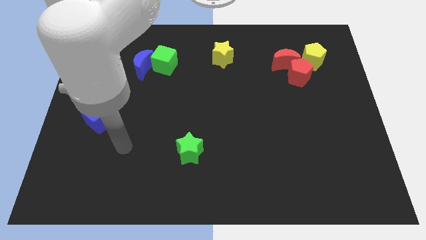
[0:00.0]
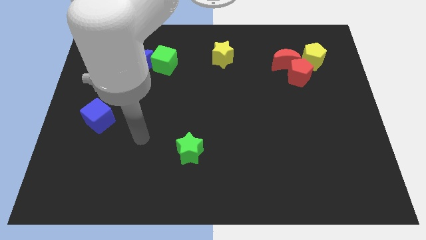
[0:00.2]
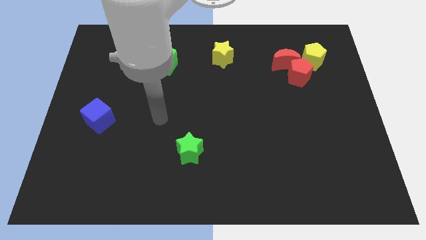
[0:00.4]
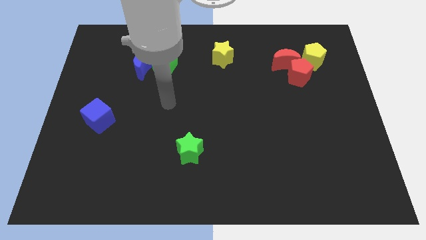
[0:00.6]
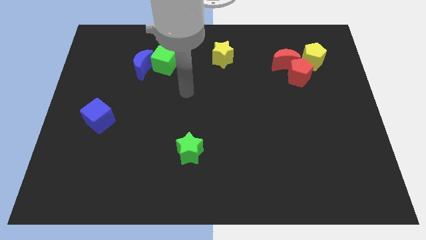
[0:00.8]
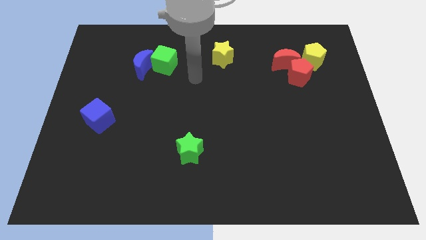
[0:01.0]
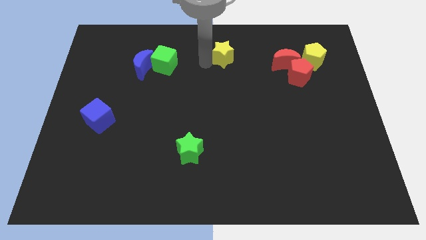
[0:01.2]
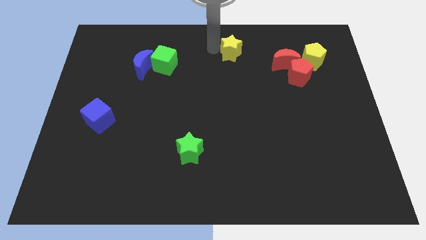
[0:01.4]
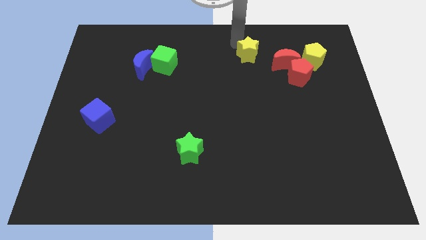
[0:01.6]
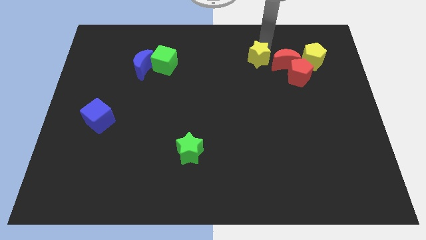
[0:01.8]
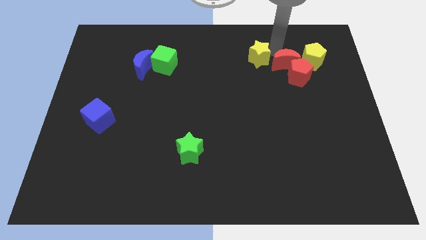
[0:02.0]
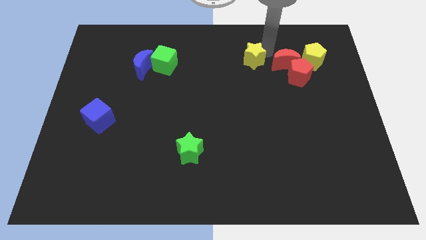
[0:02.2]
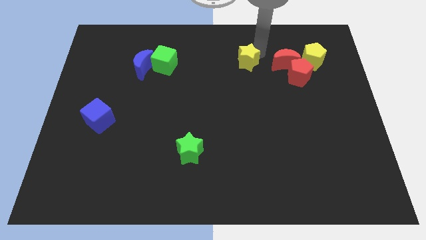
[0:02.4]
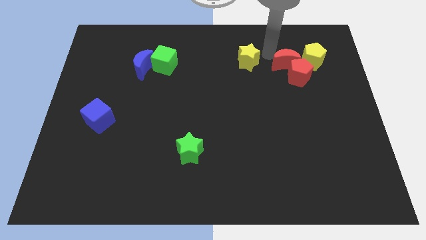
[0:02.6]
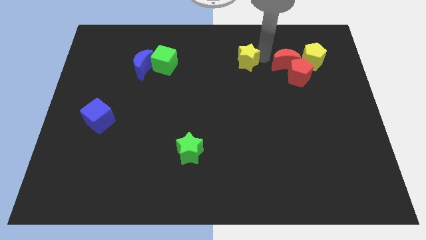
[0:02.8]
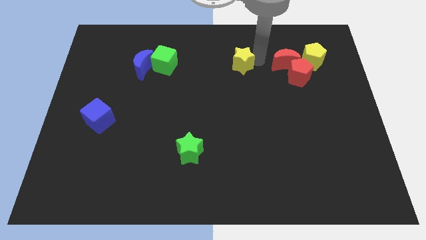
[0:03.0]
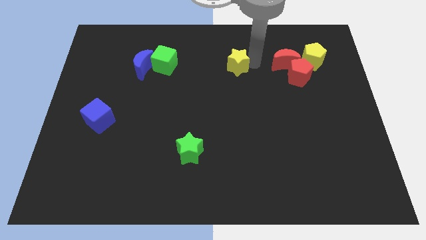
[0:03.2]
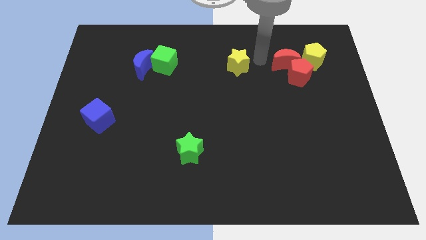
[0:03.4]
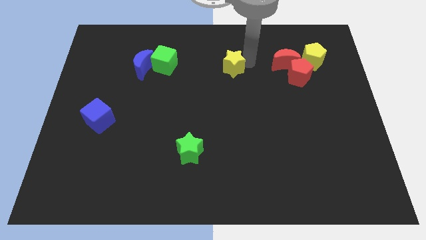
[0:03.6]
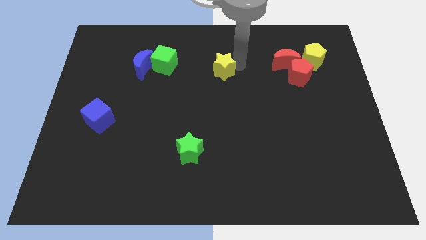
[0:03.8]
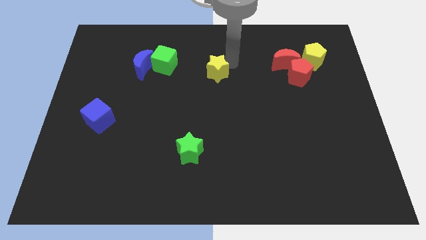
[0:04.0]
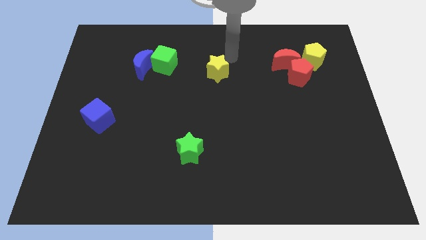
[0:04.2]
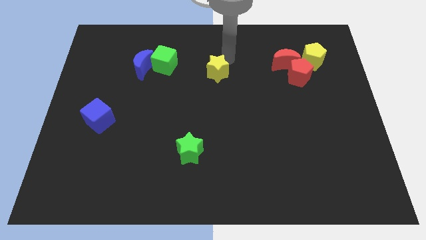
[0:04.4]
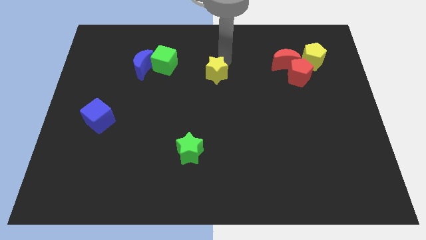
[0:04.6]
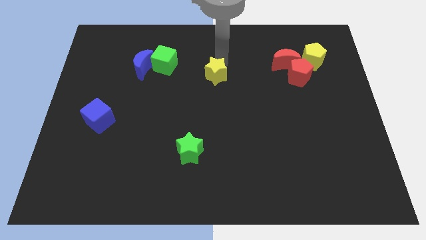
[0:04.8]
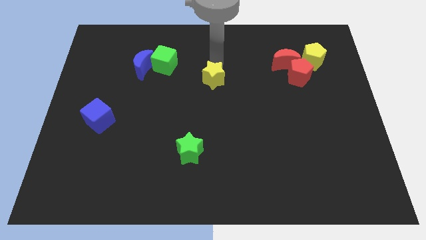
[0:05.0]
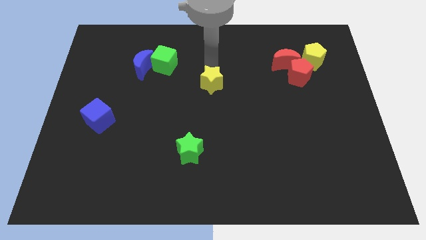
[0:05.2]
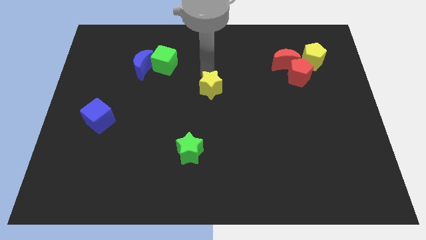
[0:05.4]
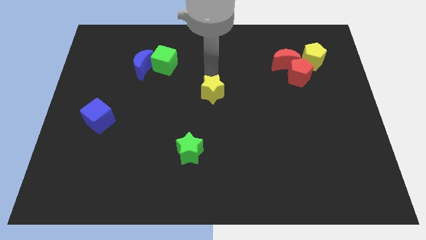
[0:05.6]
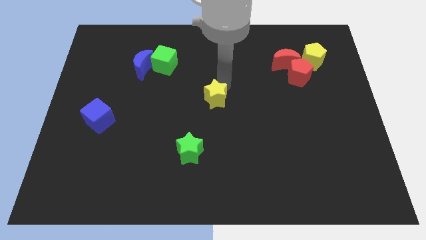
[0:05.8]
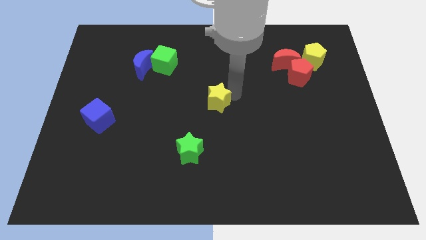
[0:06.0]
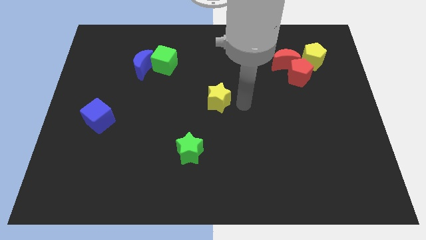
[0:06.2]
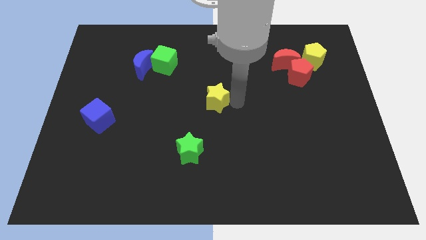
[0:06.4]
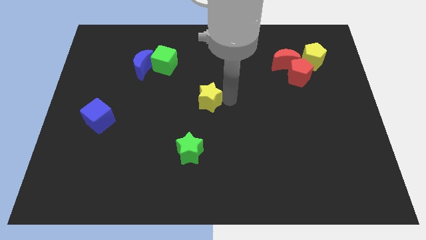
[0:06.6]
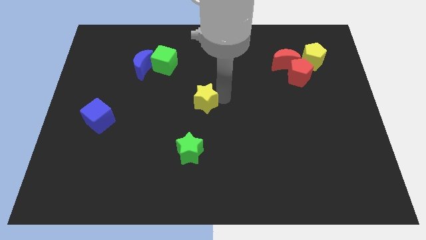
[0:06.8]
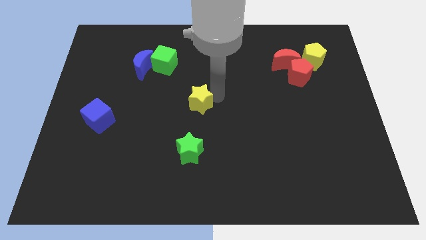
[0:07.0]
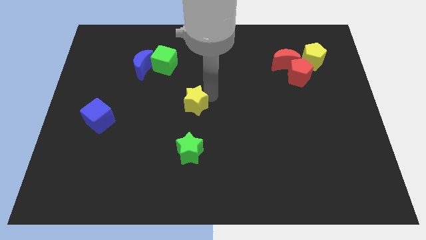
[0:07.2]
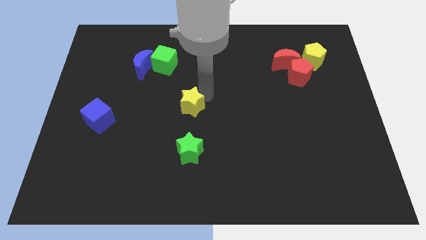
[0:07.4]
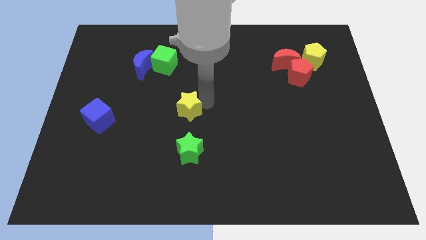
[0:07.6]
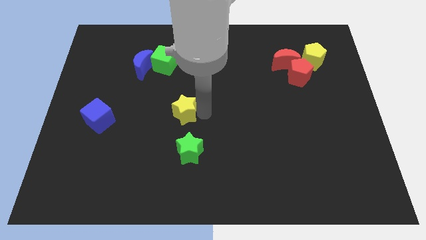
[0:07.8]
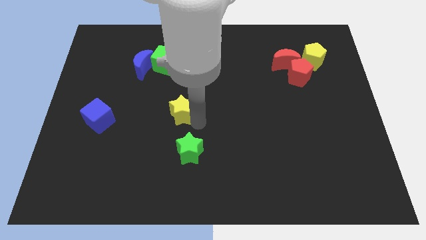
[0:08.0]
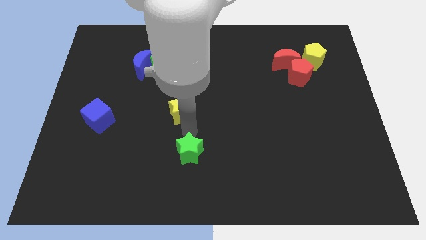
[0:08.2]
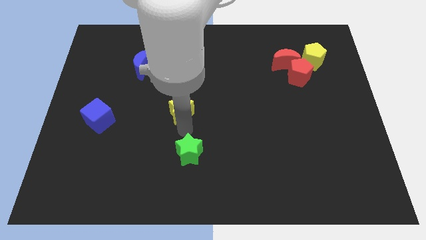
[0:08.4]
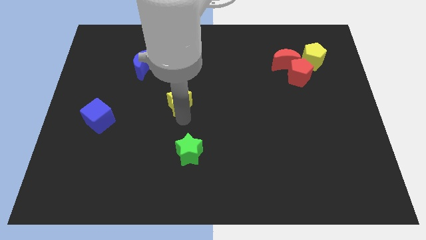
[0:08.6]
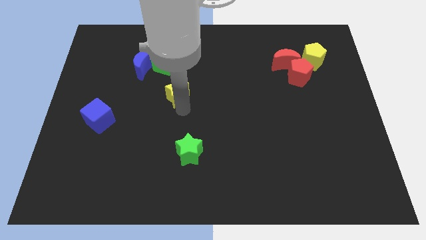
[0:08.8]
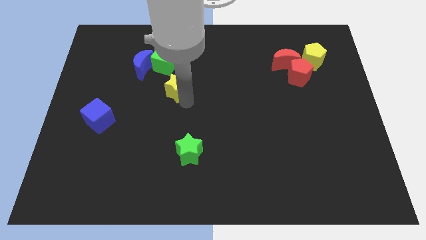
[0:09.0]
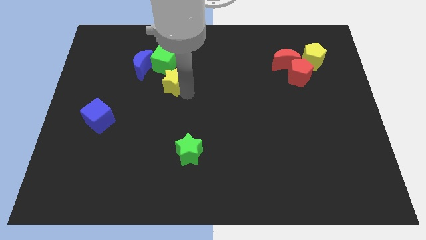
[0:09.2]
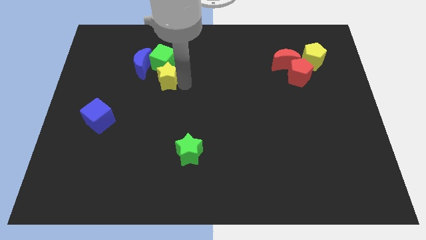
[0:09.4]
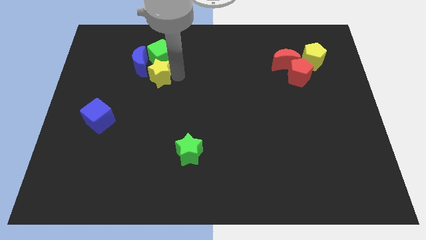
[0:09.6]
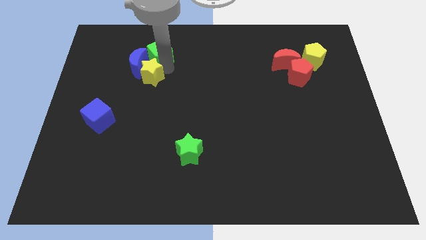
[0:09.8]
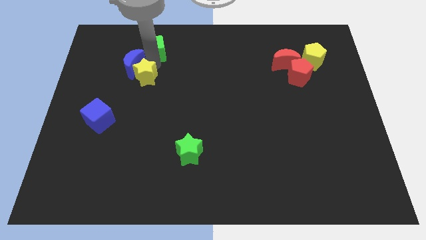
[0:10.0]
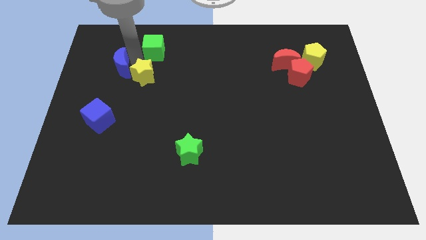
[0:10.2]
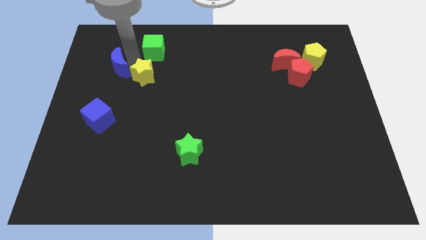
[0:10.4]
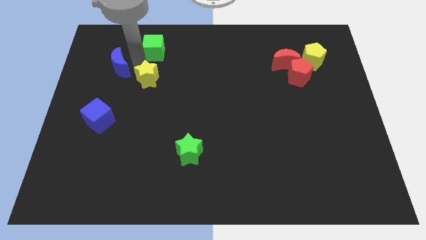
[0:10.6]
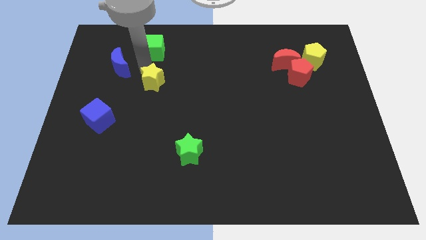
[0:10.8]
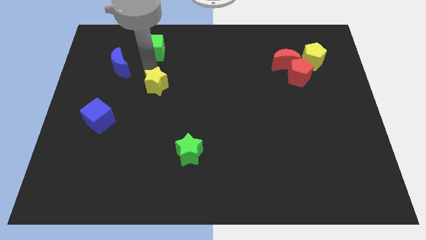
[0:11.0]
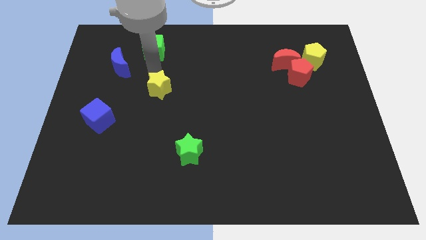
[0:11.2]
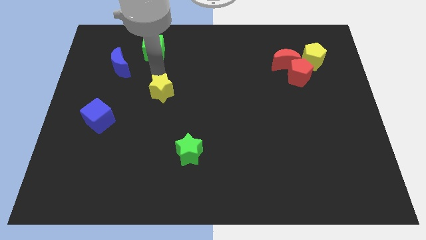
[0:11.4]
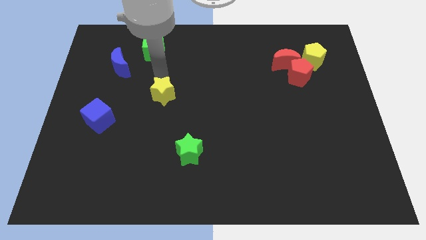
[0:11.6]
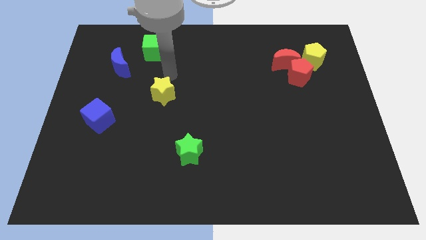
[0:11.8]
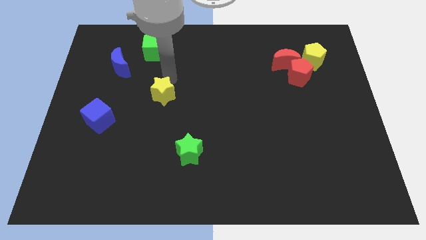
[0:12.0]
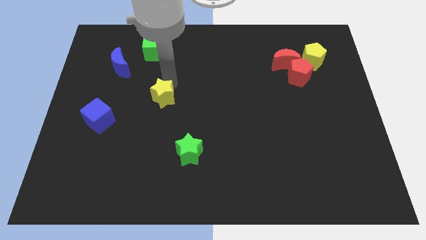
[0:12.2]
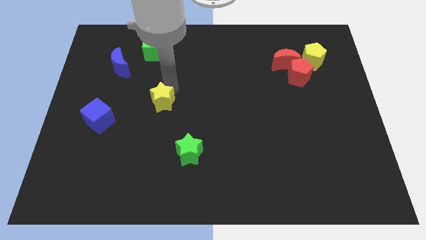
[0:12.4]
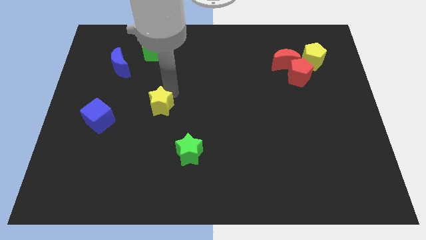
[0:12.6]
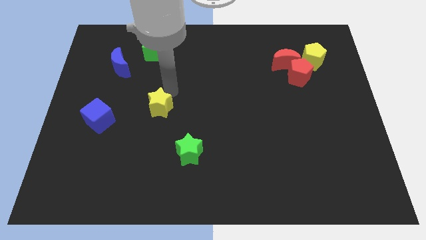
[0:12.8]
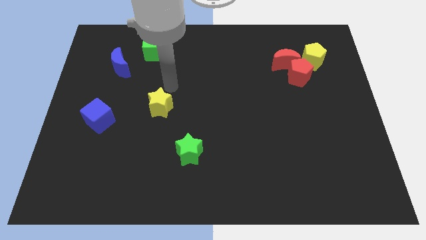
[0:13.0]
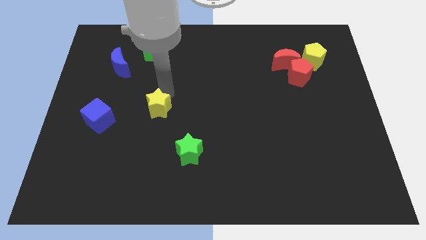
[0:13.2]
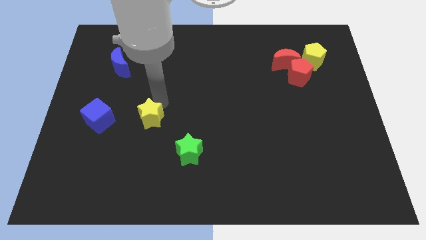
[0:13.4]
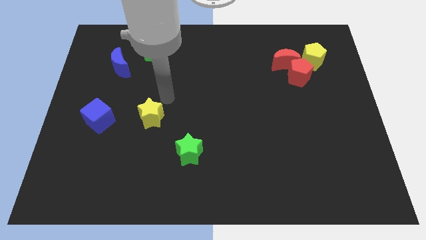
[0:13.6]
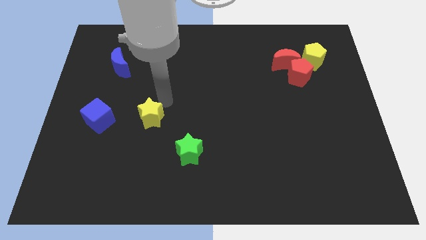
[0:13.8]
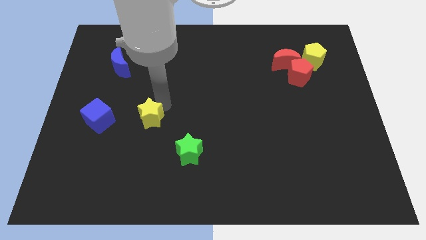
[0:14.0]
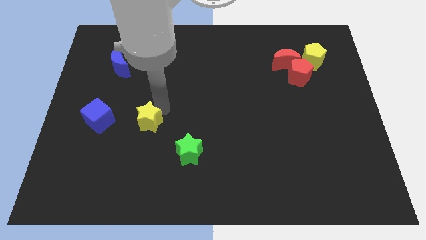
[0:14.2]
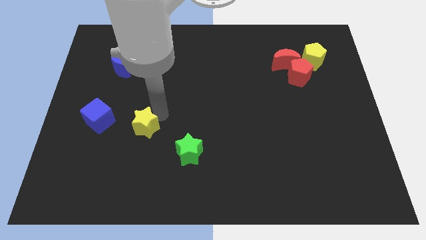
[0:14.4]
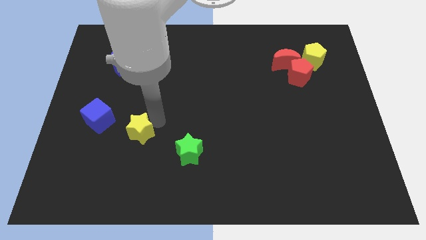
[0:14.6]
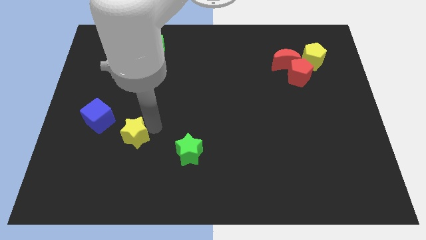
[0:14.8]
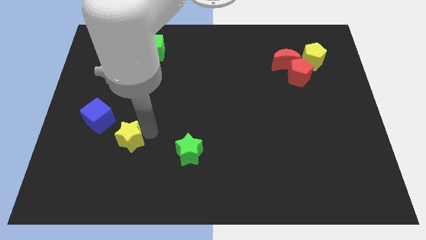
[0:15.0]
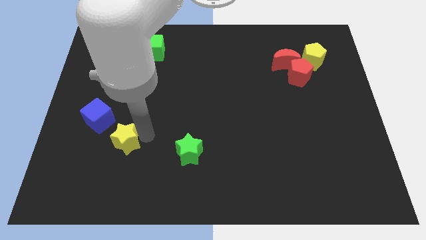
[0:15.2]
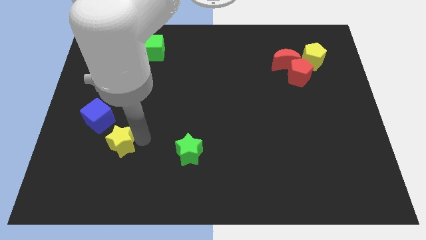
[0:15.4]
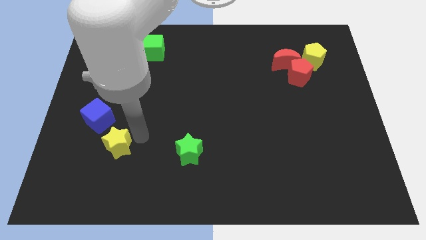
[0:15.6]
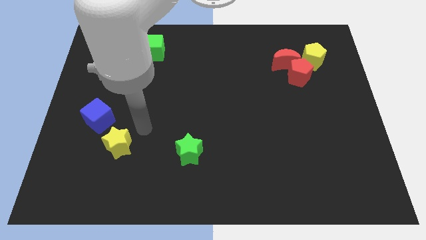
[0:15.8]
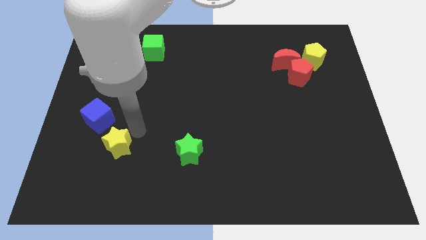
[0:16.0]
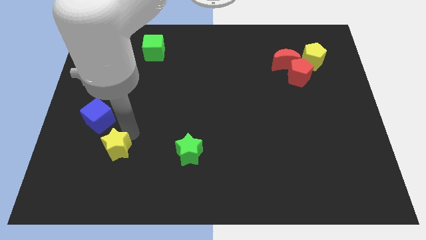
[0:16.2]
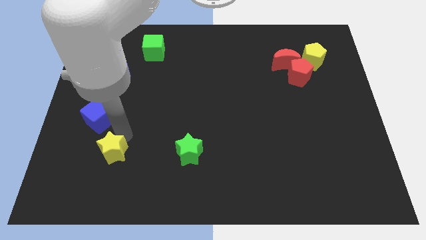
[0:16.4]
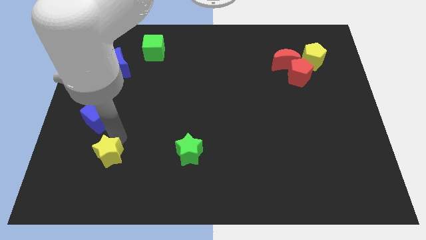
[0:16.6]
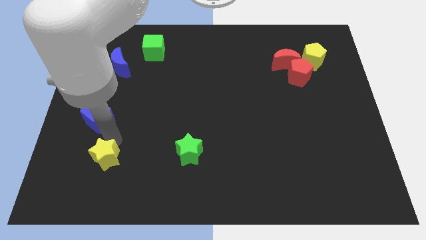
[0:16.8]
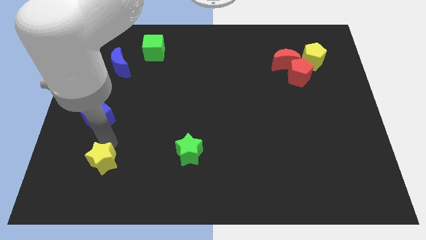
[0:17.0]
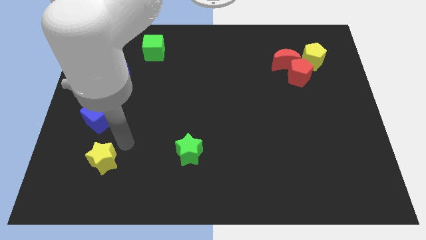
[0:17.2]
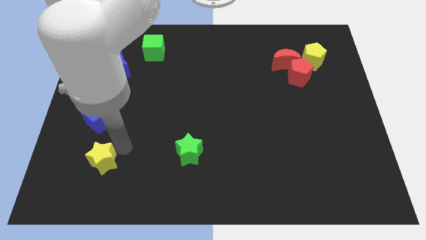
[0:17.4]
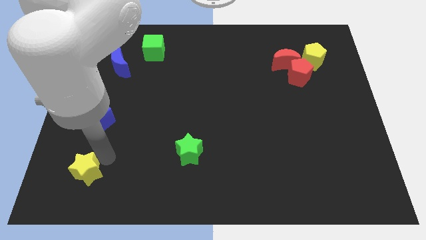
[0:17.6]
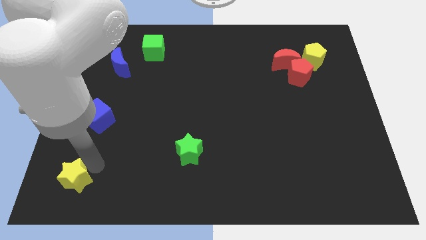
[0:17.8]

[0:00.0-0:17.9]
put the yellow star to the lower left corner
